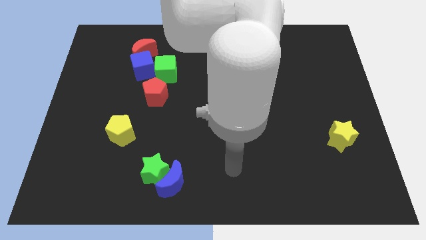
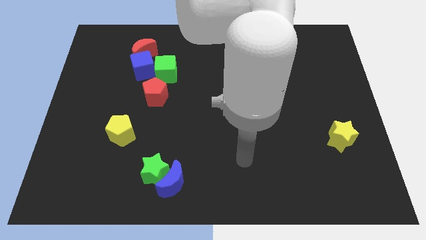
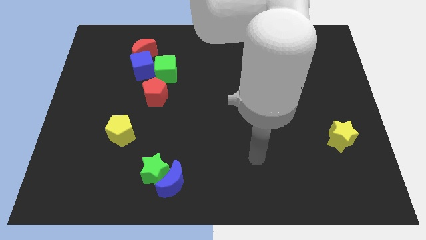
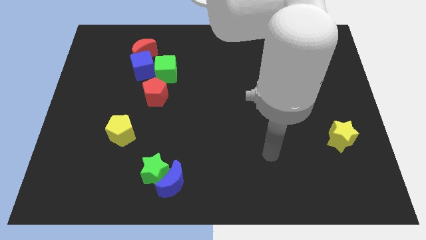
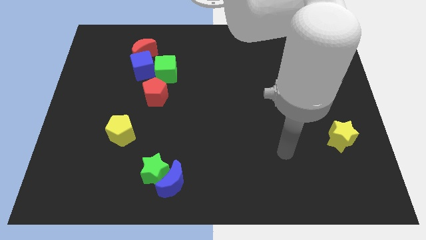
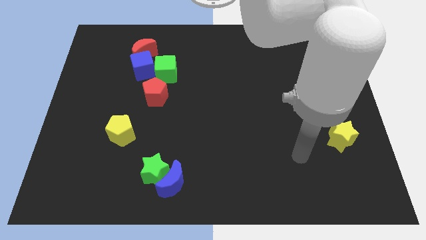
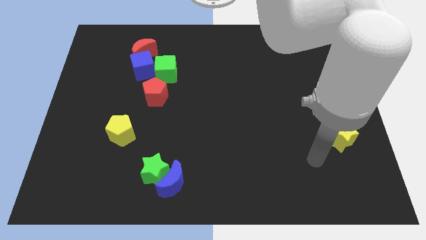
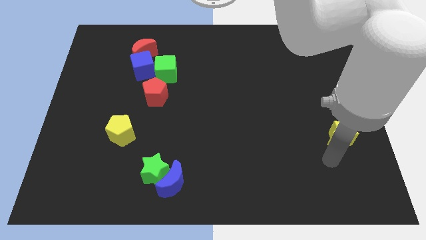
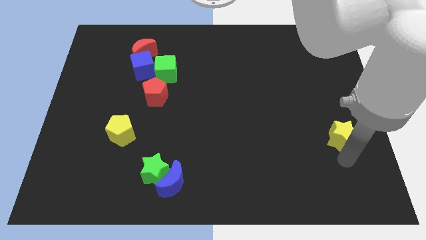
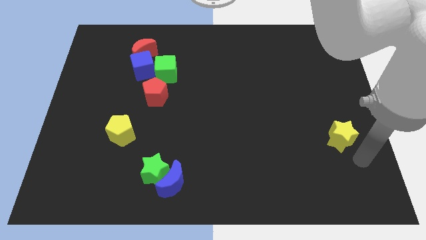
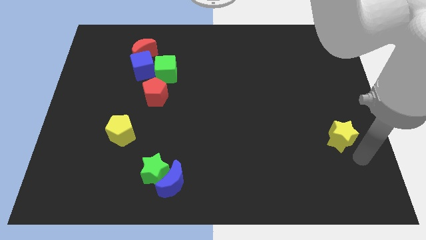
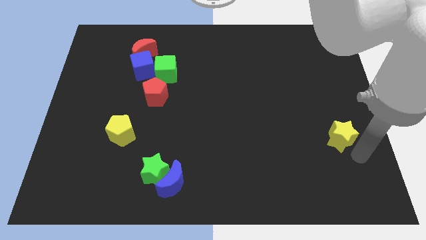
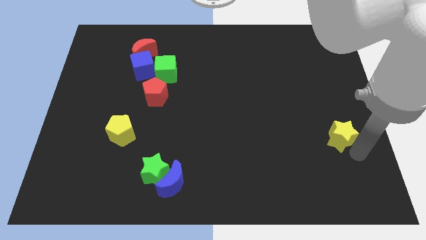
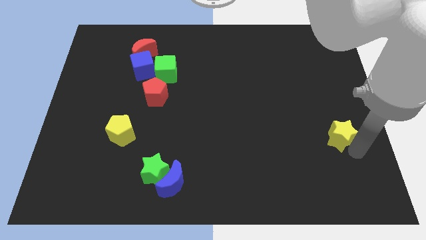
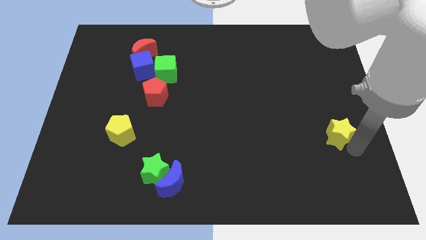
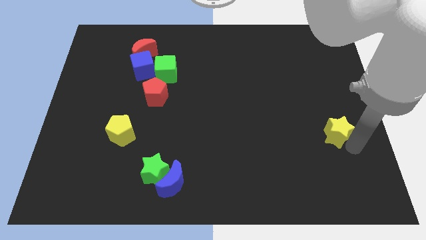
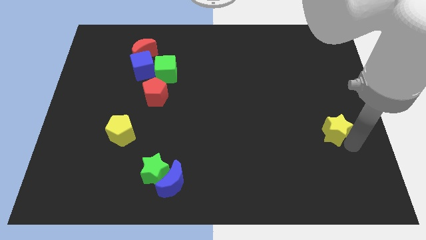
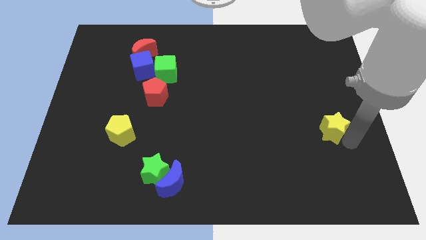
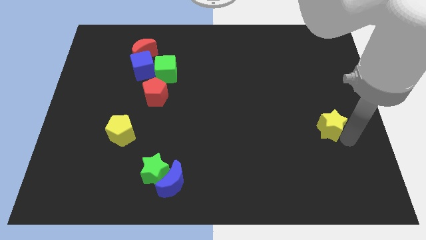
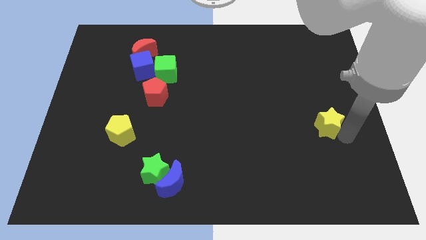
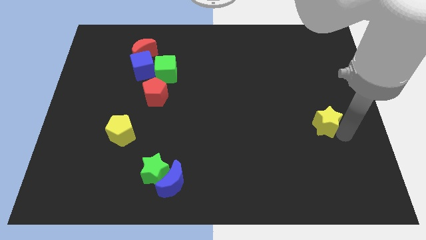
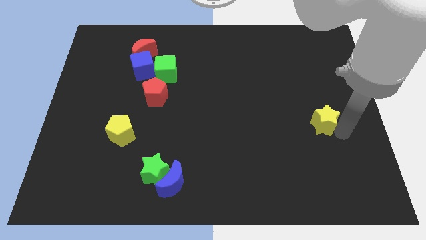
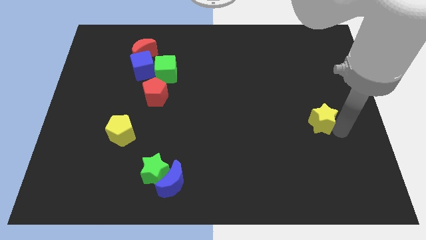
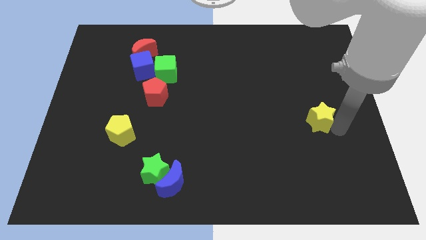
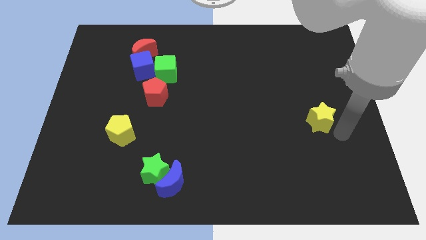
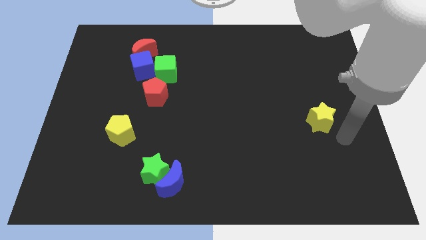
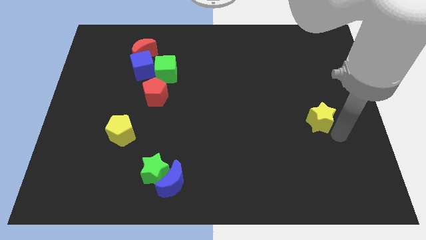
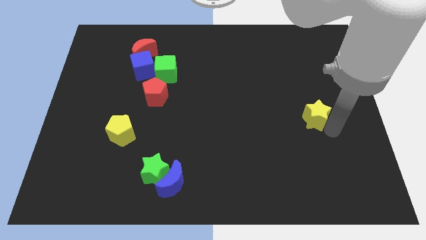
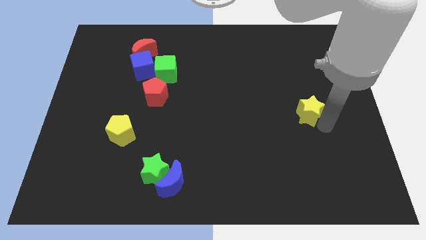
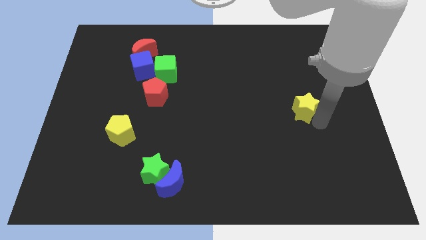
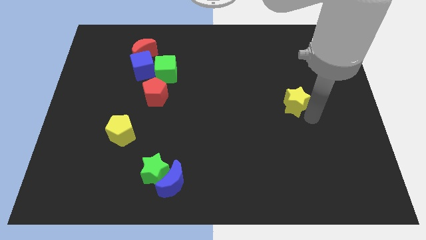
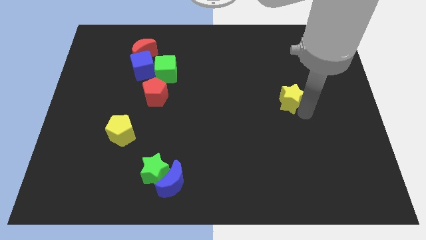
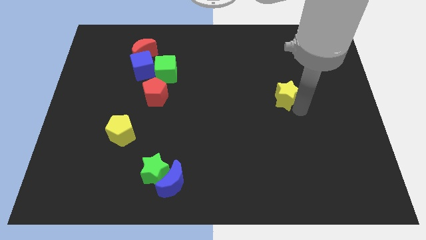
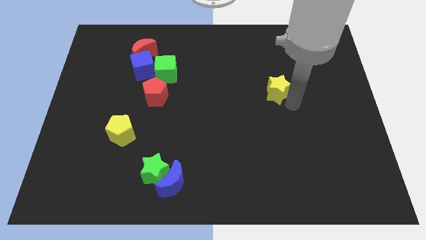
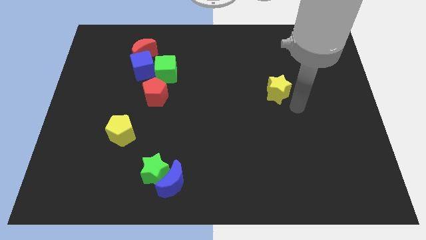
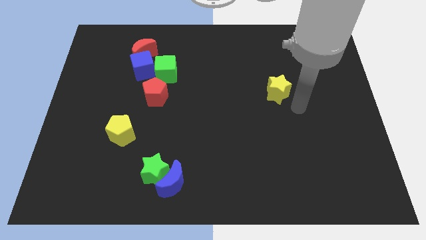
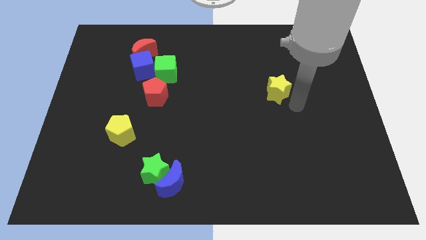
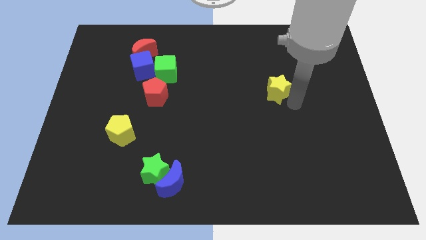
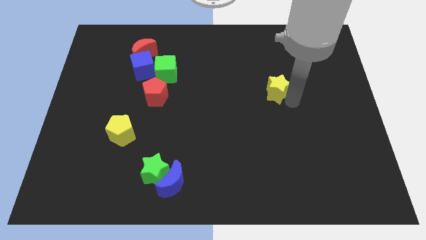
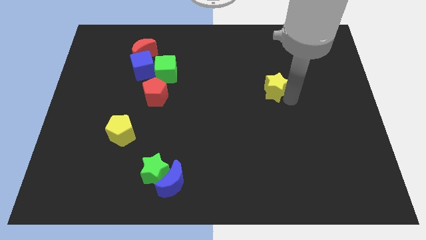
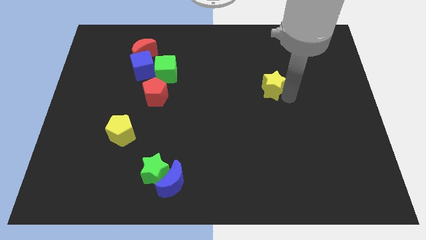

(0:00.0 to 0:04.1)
slide the yellow star upwards and left diagonally

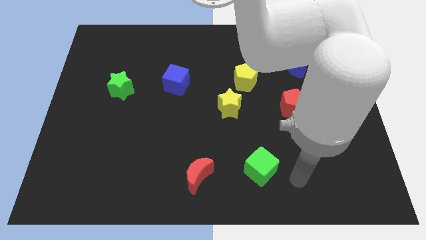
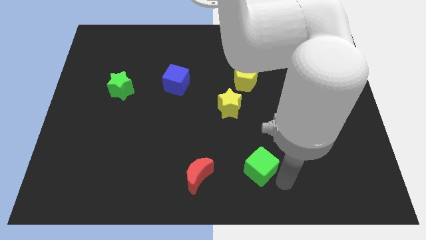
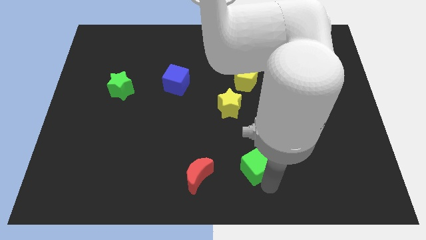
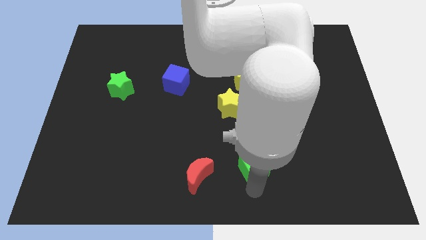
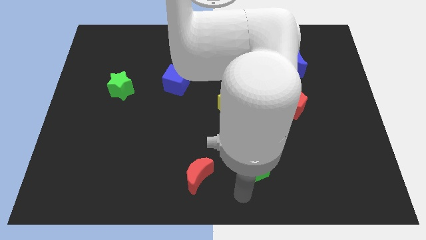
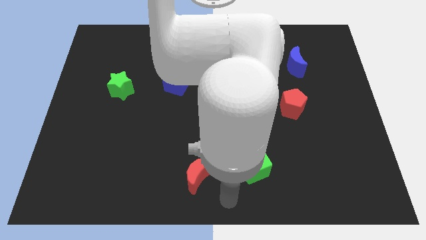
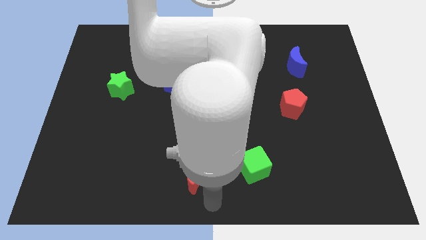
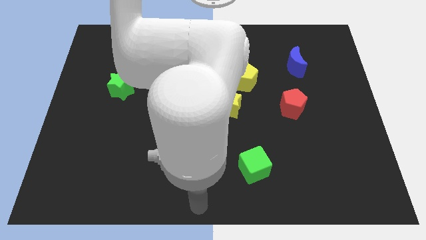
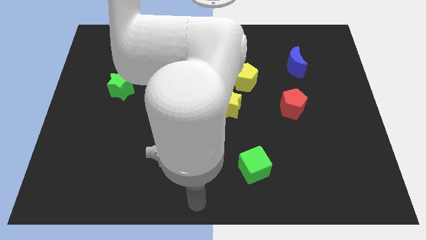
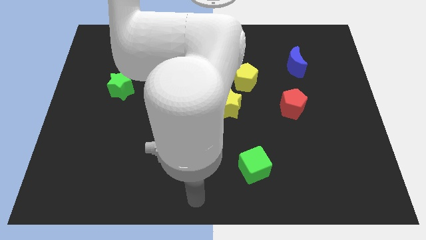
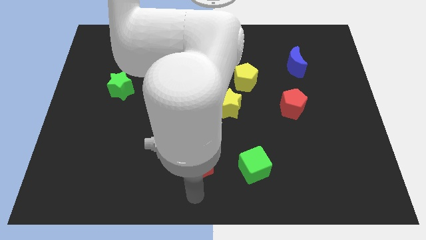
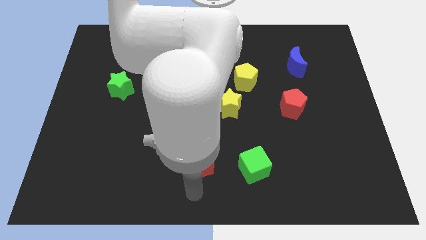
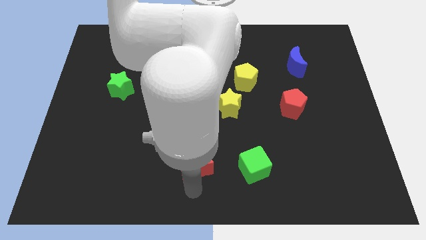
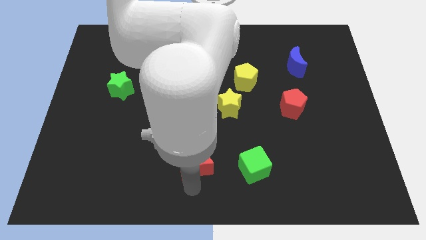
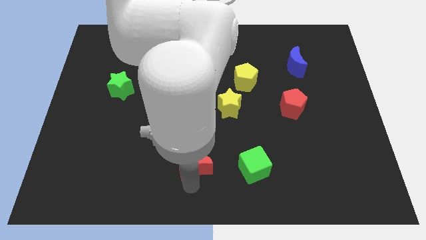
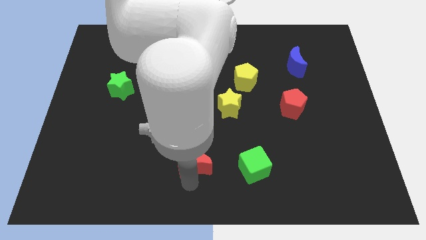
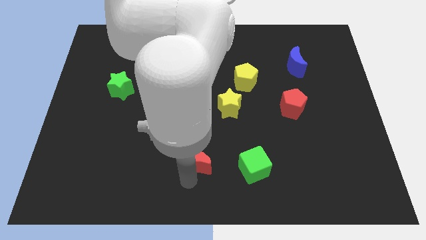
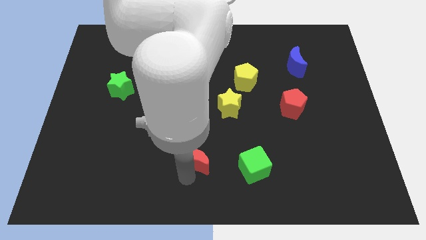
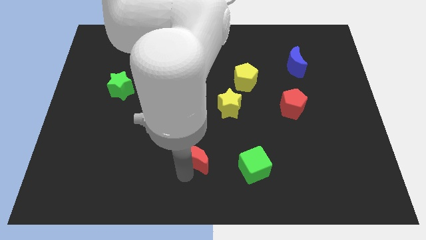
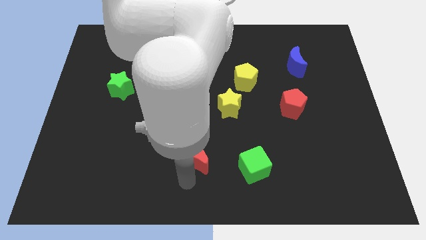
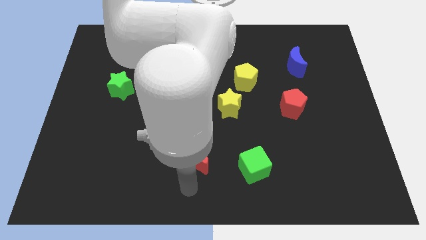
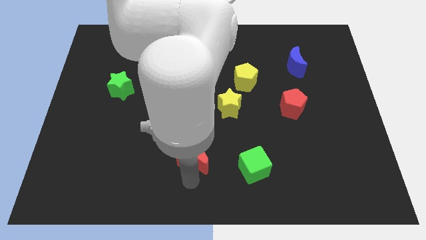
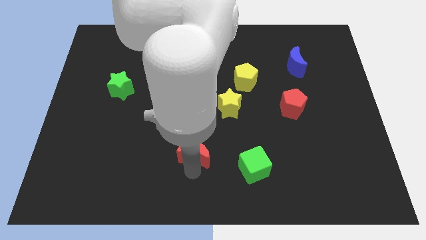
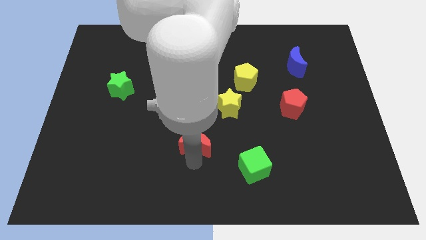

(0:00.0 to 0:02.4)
move the red moon up slightly

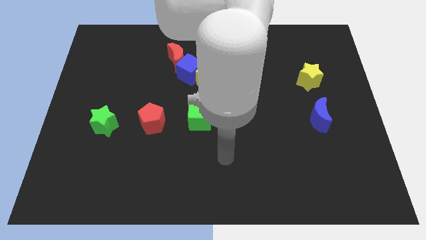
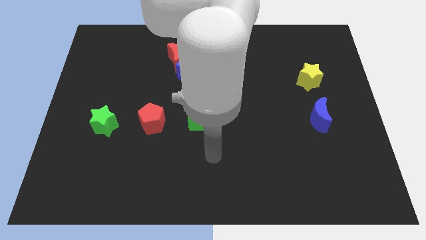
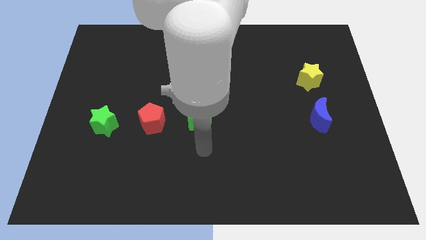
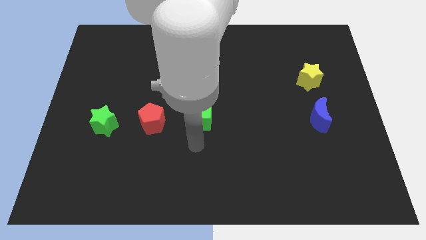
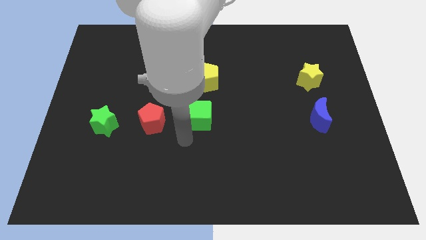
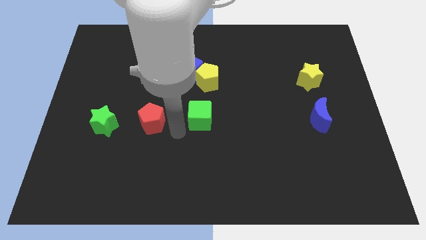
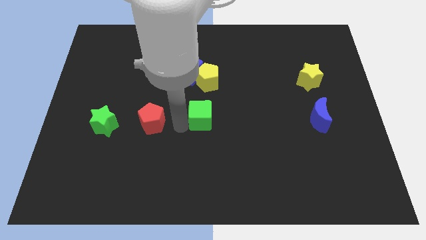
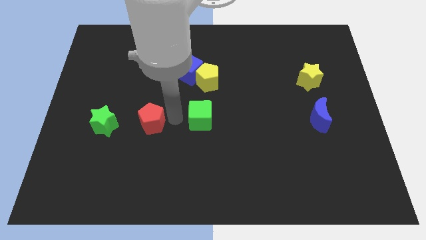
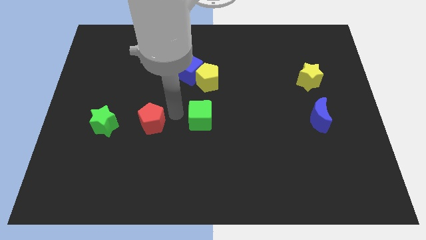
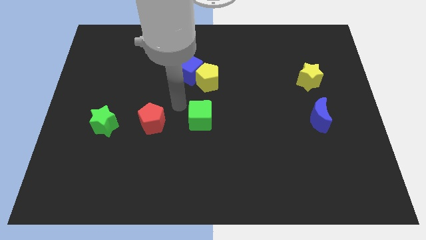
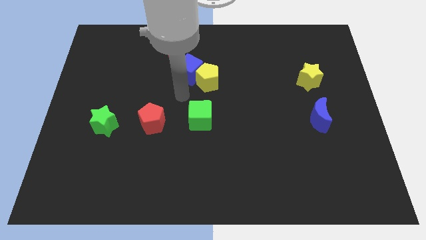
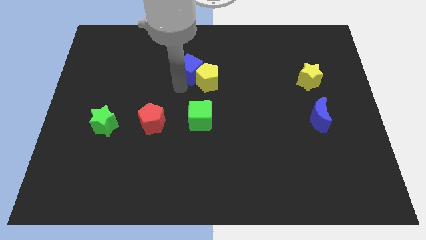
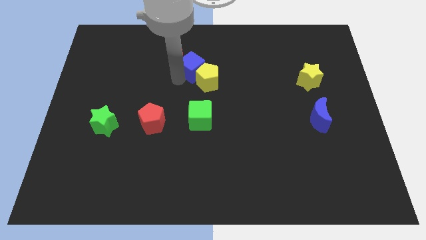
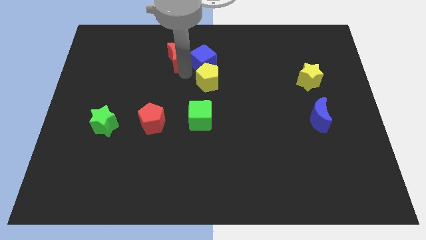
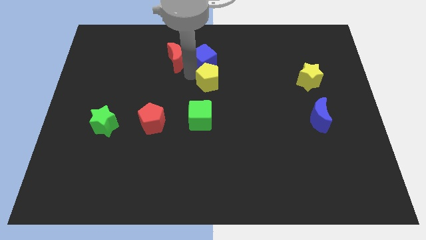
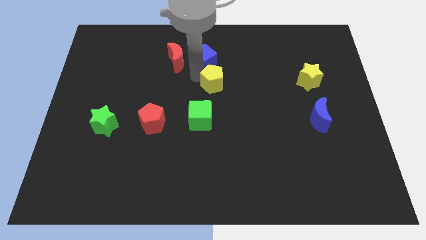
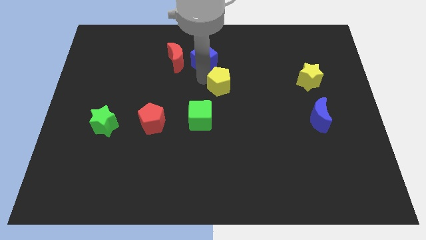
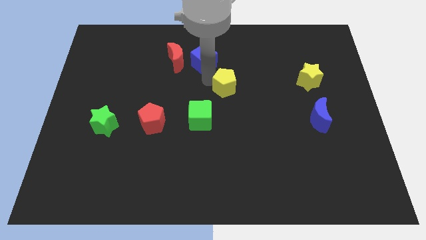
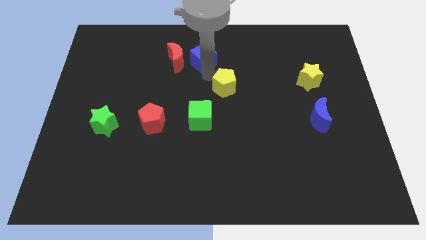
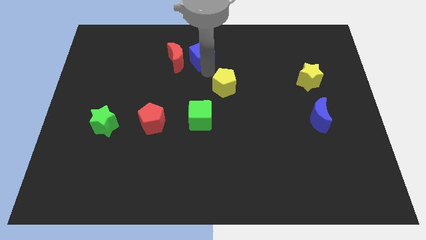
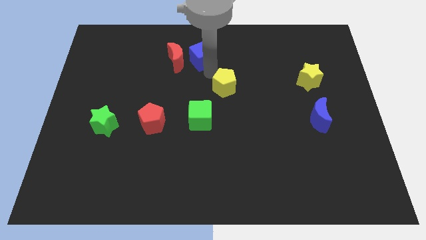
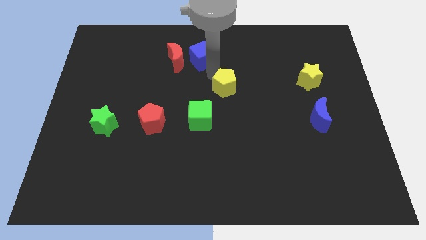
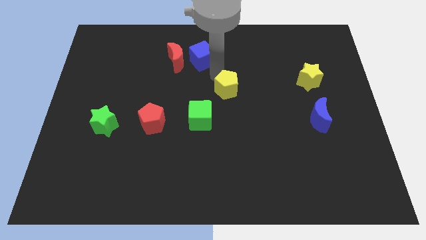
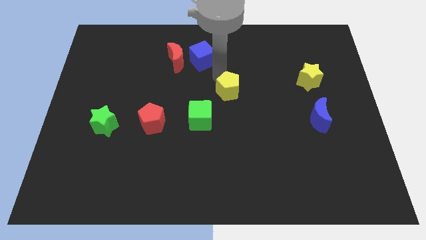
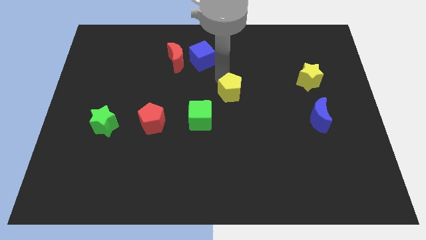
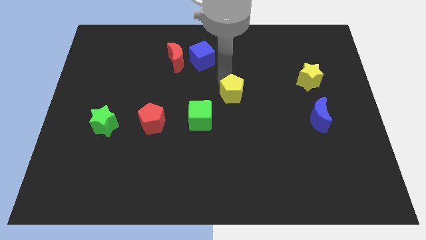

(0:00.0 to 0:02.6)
move the yellow pentagon a little bit downwards and then right
